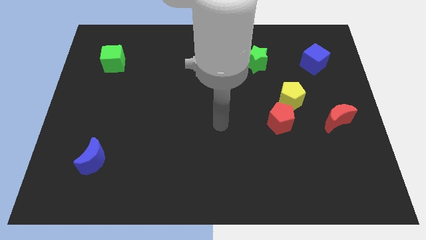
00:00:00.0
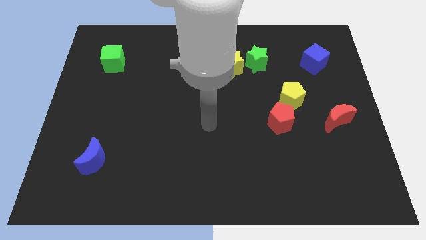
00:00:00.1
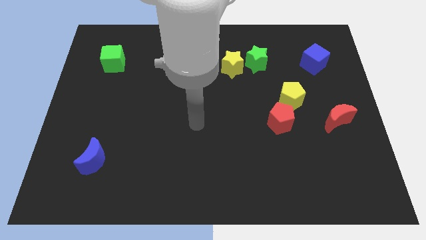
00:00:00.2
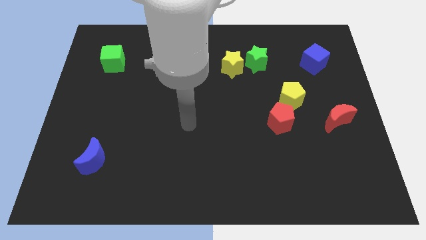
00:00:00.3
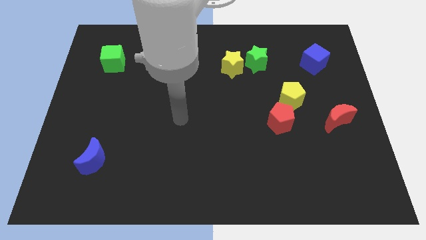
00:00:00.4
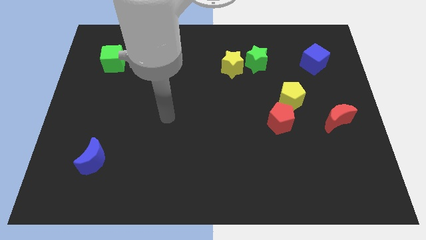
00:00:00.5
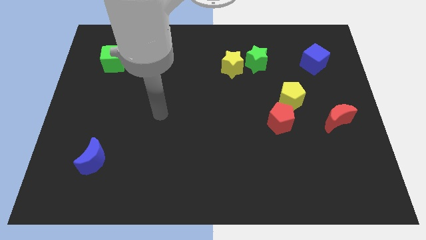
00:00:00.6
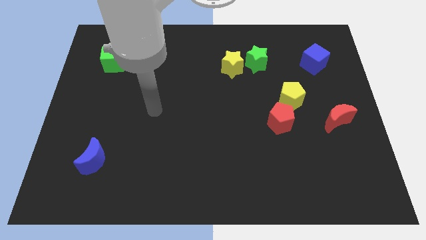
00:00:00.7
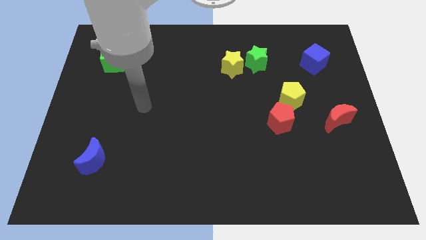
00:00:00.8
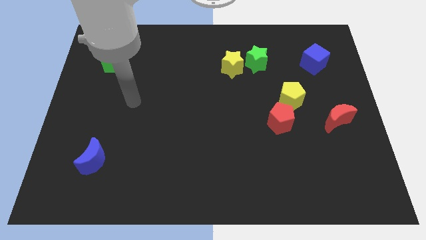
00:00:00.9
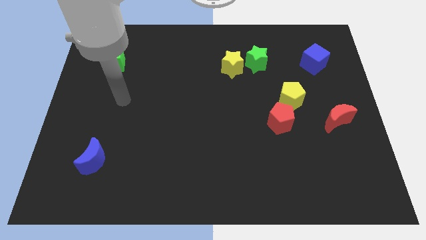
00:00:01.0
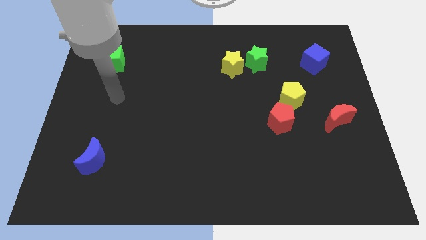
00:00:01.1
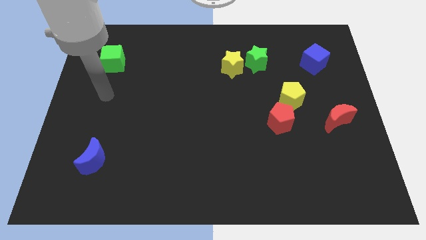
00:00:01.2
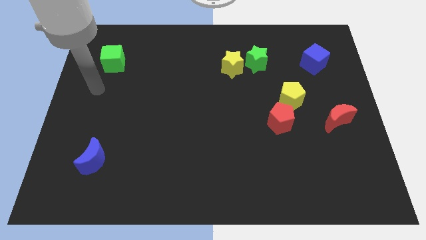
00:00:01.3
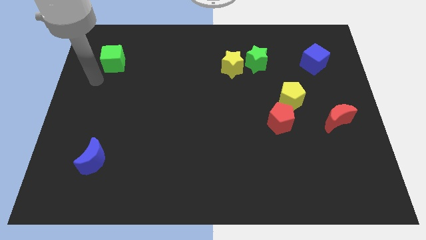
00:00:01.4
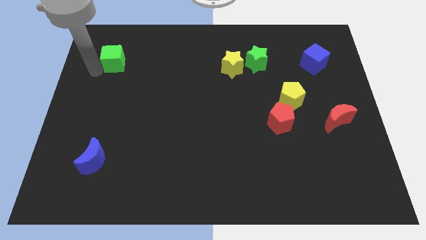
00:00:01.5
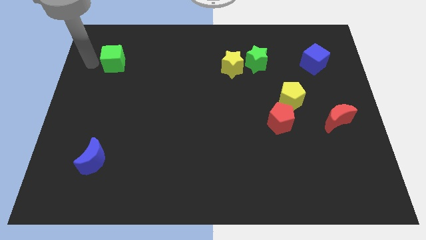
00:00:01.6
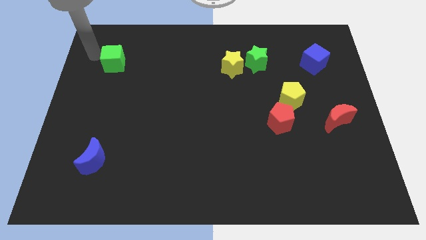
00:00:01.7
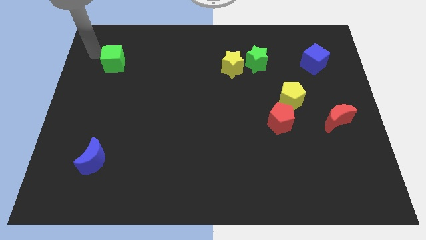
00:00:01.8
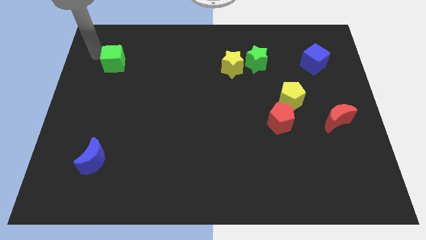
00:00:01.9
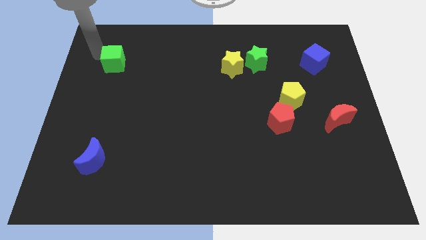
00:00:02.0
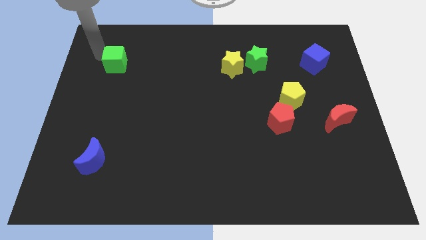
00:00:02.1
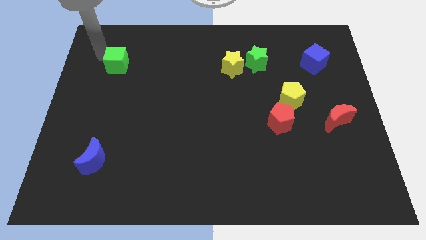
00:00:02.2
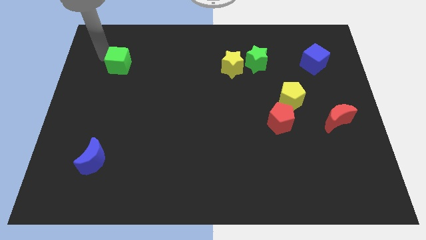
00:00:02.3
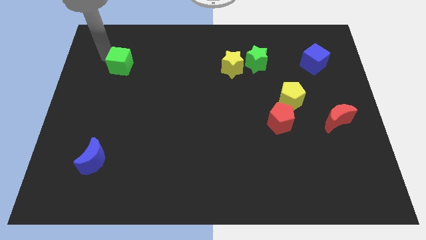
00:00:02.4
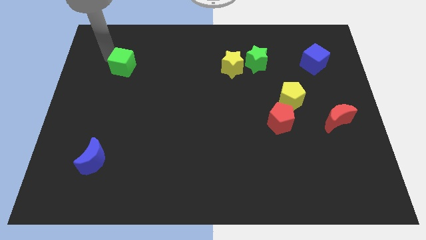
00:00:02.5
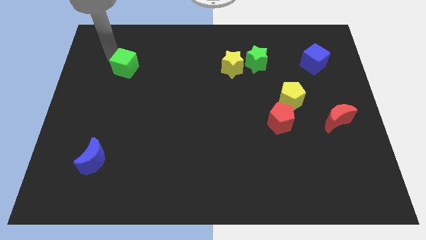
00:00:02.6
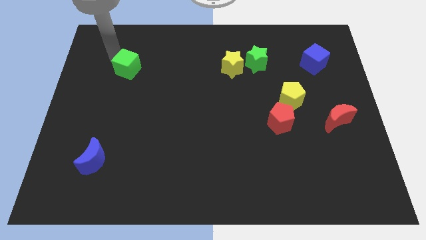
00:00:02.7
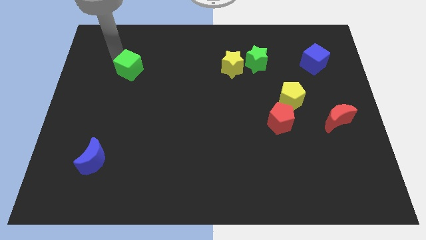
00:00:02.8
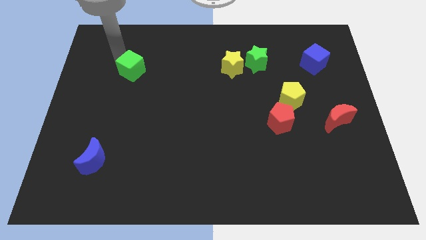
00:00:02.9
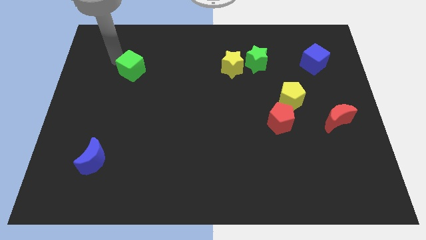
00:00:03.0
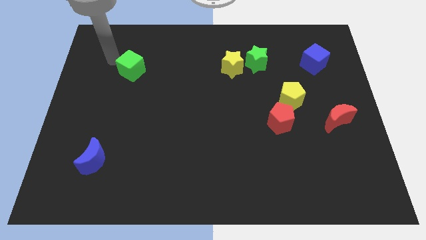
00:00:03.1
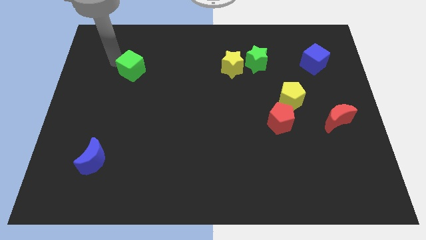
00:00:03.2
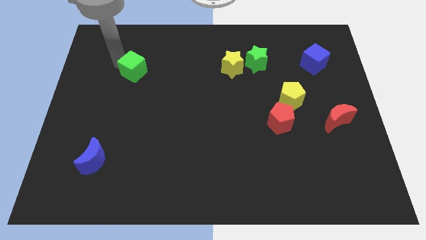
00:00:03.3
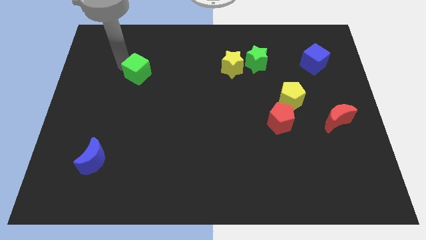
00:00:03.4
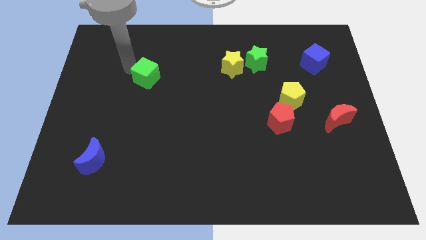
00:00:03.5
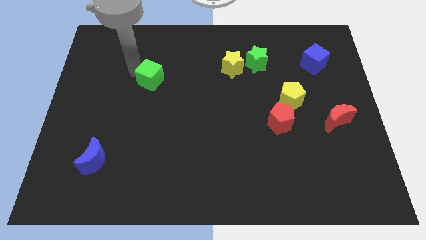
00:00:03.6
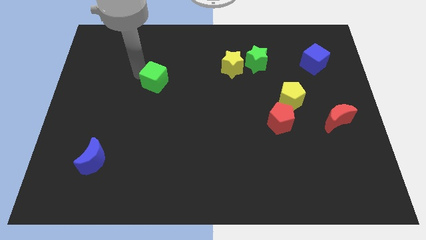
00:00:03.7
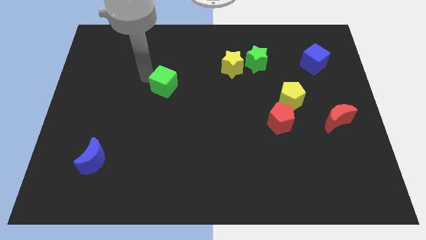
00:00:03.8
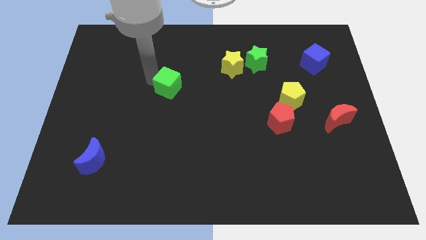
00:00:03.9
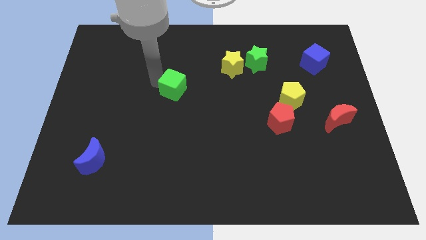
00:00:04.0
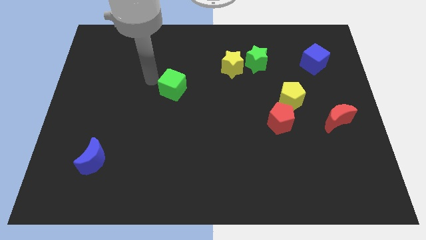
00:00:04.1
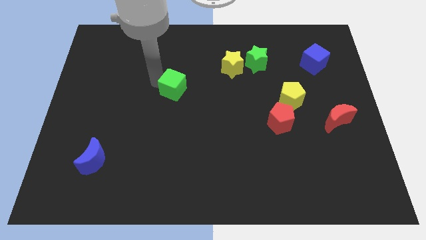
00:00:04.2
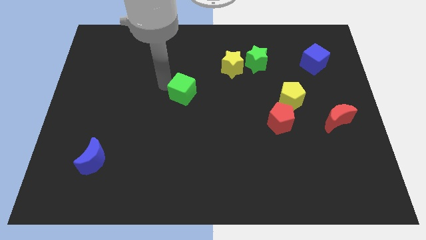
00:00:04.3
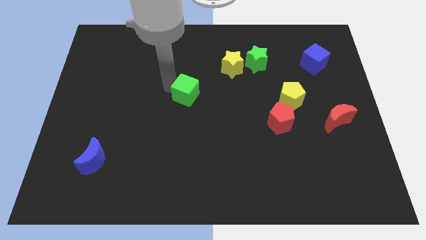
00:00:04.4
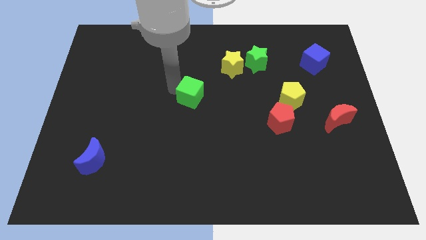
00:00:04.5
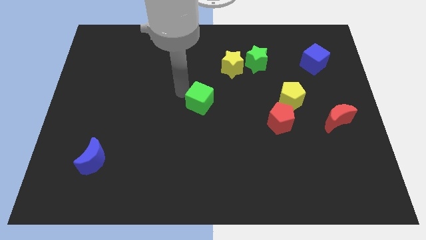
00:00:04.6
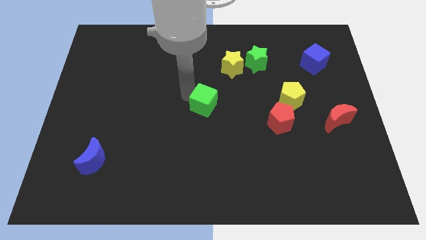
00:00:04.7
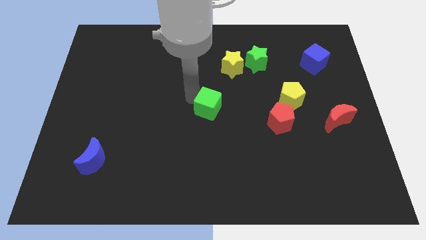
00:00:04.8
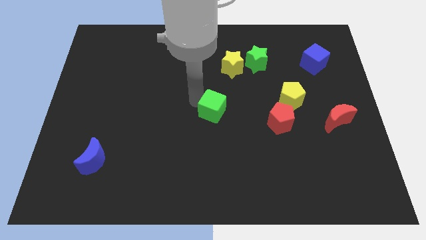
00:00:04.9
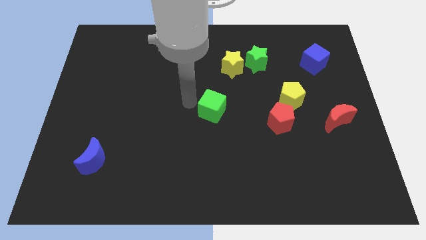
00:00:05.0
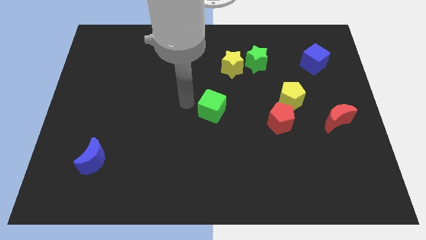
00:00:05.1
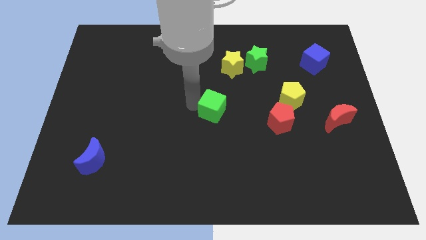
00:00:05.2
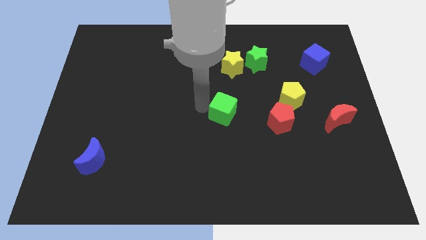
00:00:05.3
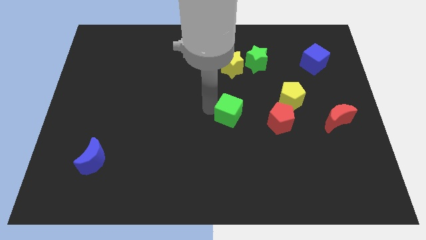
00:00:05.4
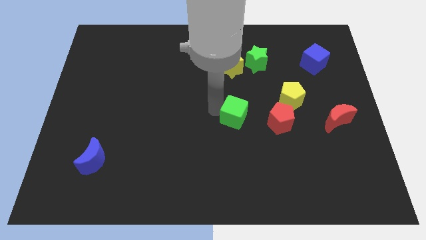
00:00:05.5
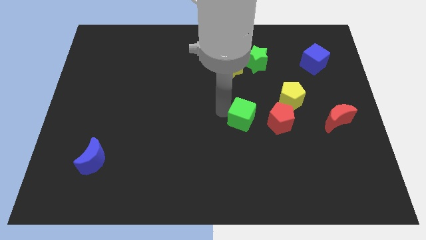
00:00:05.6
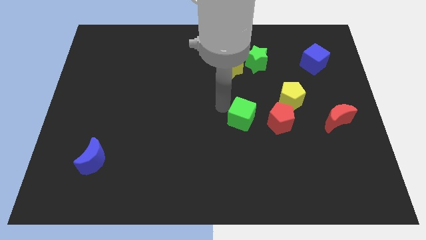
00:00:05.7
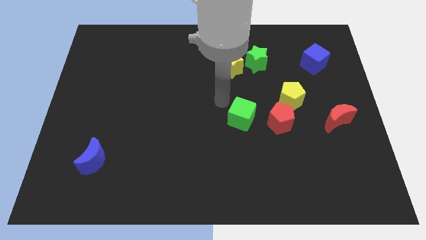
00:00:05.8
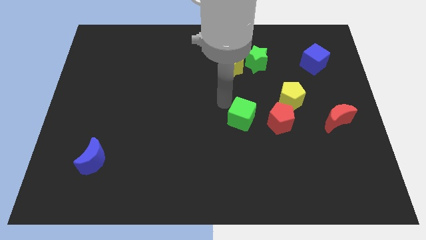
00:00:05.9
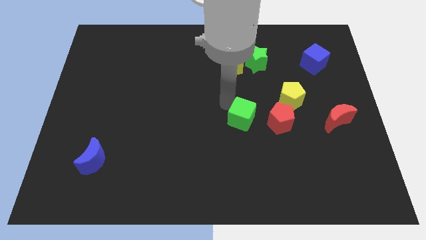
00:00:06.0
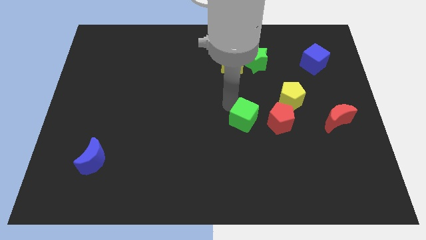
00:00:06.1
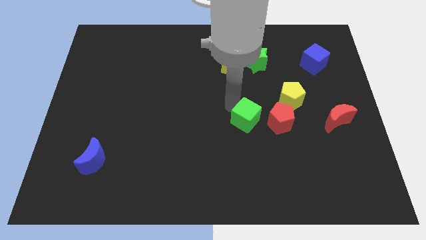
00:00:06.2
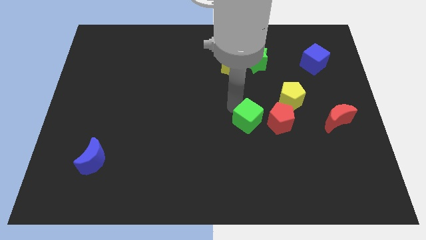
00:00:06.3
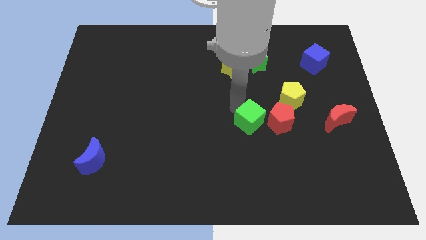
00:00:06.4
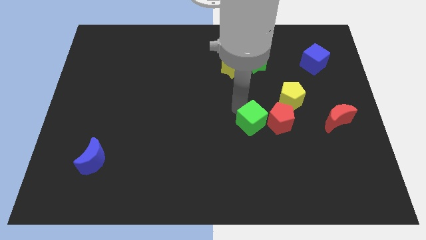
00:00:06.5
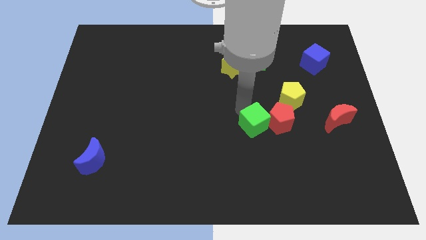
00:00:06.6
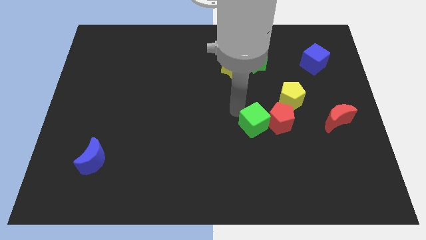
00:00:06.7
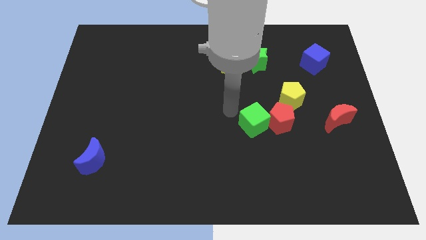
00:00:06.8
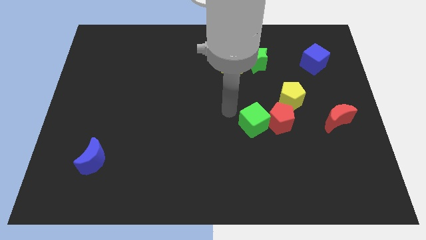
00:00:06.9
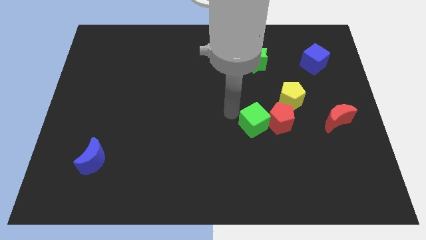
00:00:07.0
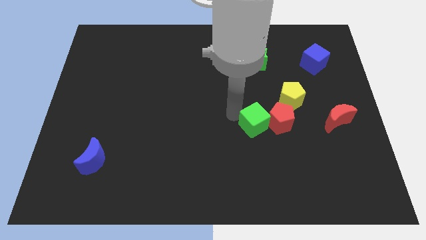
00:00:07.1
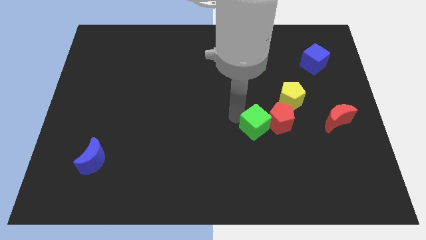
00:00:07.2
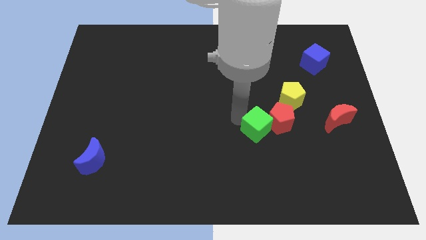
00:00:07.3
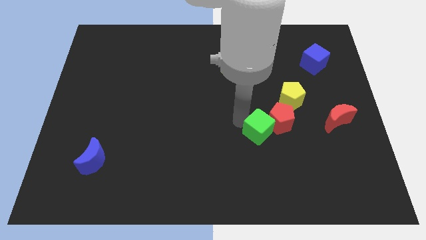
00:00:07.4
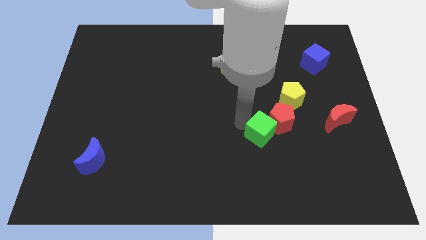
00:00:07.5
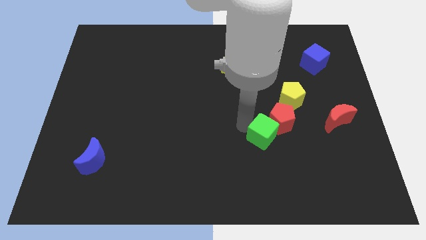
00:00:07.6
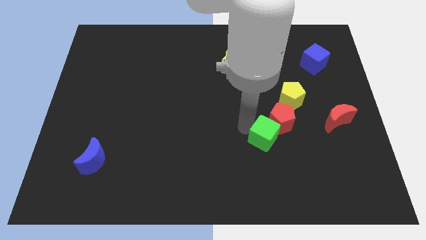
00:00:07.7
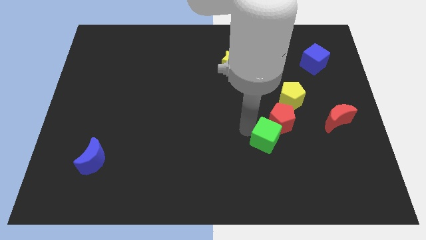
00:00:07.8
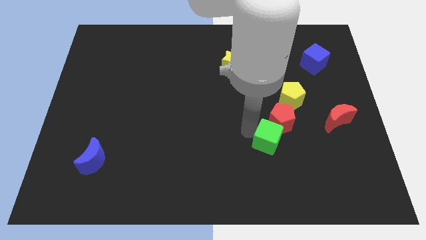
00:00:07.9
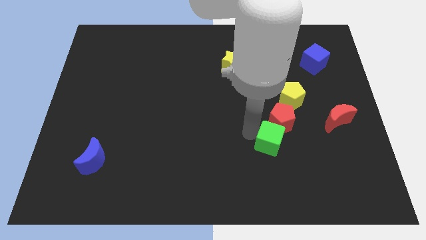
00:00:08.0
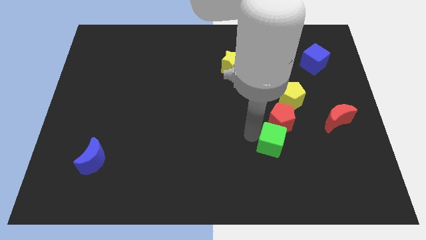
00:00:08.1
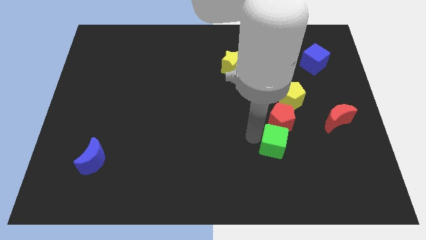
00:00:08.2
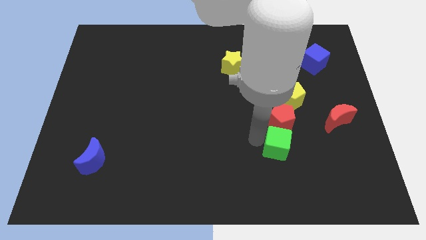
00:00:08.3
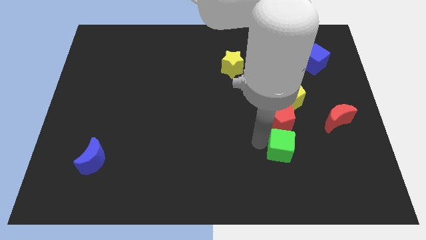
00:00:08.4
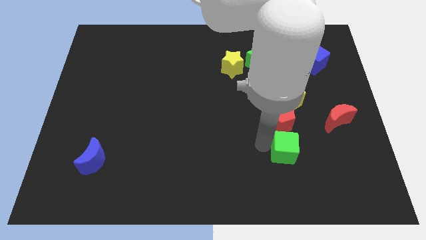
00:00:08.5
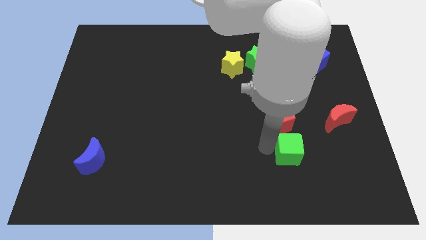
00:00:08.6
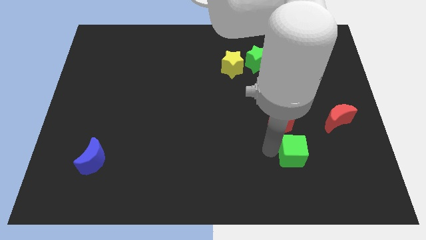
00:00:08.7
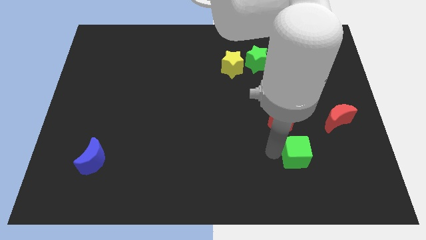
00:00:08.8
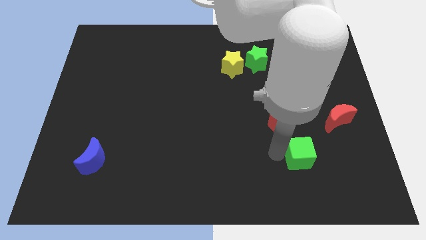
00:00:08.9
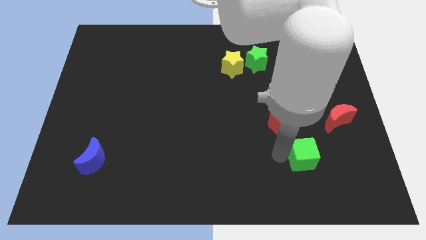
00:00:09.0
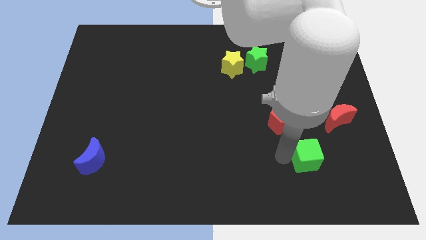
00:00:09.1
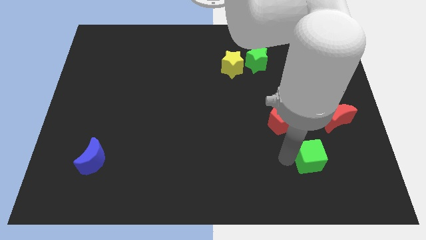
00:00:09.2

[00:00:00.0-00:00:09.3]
push the green cube to the bottom left side of the red moon
